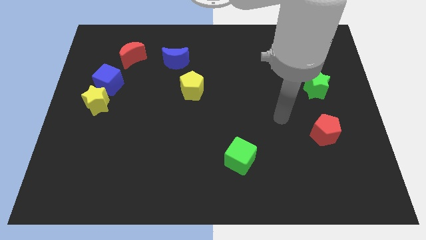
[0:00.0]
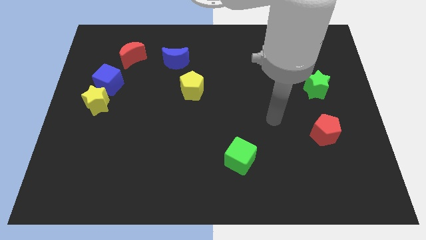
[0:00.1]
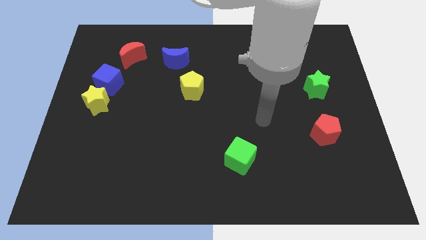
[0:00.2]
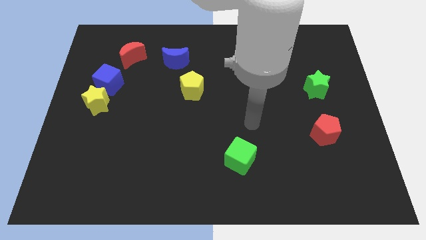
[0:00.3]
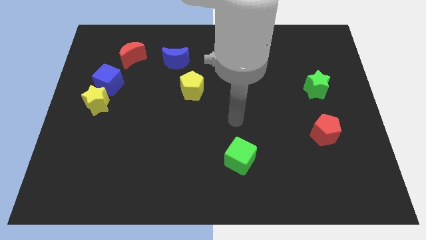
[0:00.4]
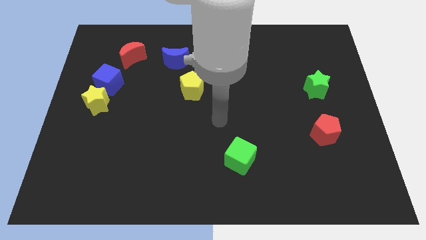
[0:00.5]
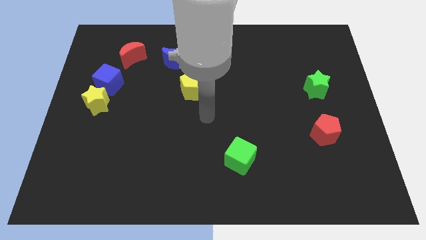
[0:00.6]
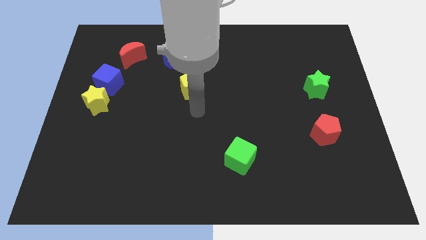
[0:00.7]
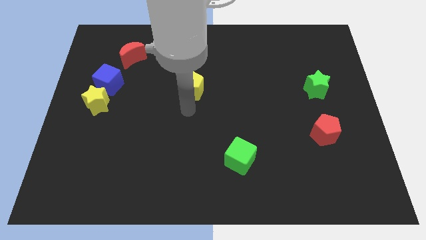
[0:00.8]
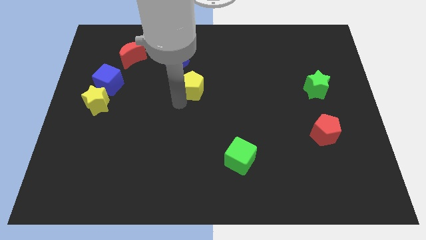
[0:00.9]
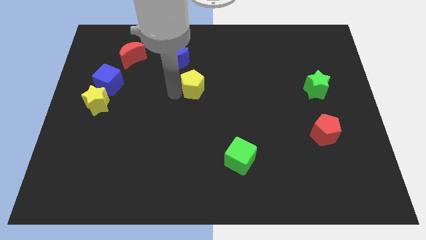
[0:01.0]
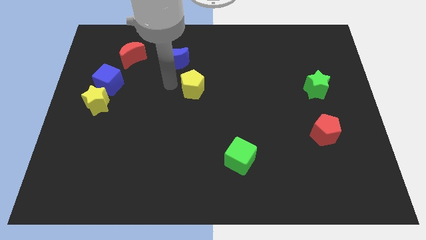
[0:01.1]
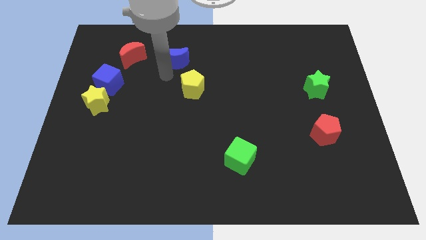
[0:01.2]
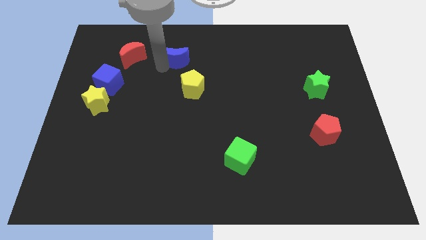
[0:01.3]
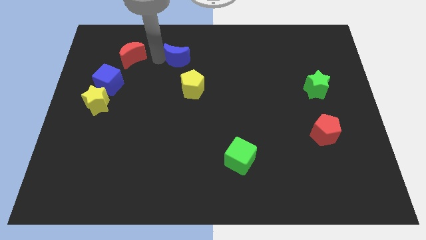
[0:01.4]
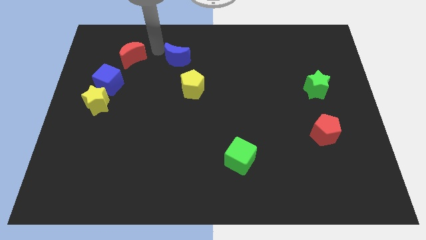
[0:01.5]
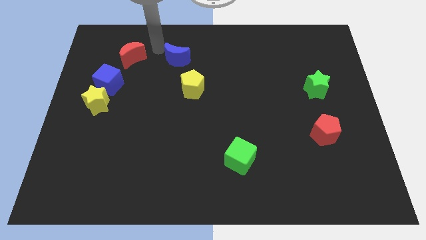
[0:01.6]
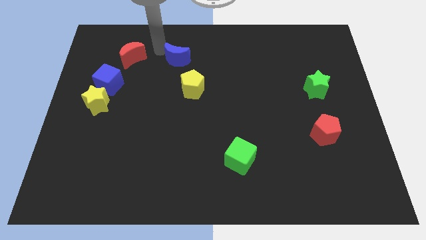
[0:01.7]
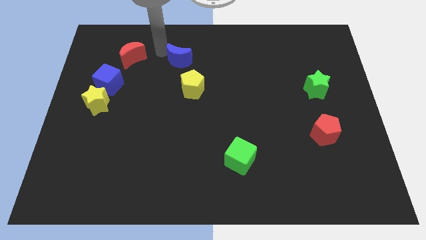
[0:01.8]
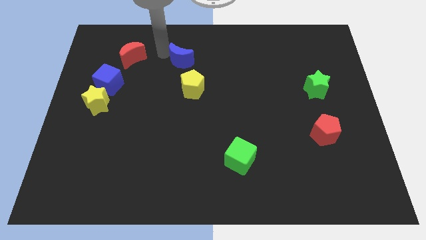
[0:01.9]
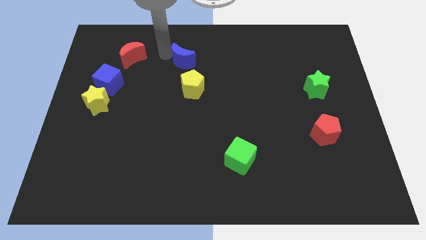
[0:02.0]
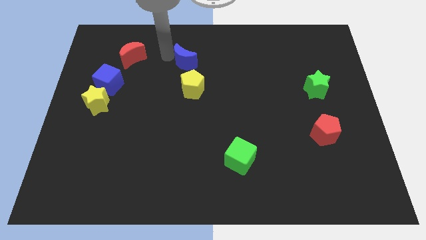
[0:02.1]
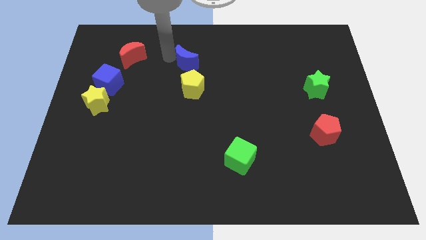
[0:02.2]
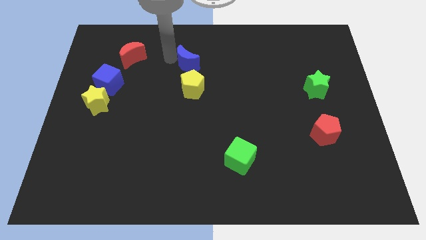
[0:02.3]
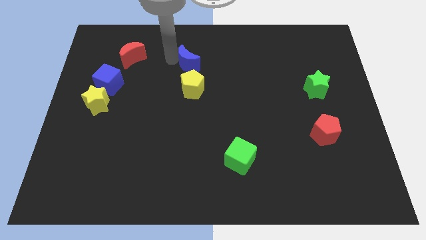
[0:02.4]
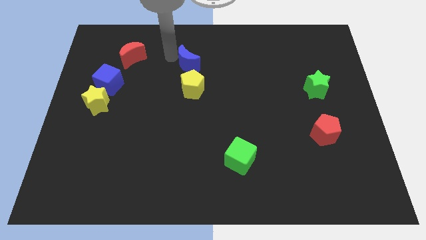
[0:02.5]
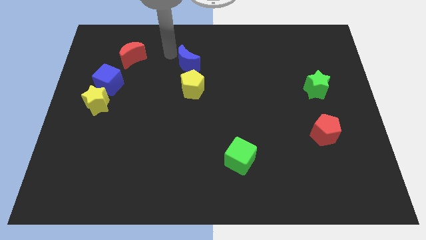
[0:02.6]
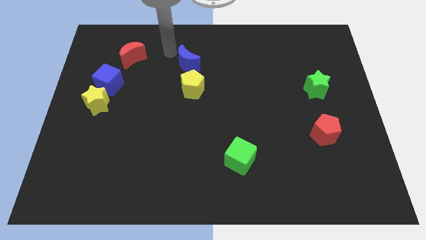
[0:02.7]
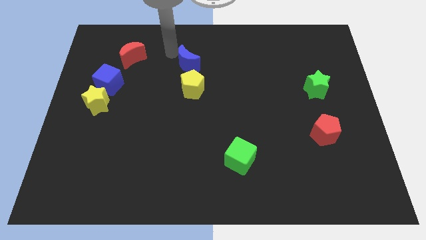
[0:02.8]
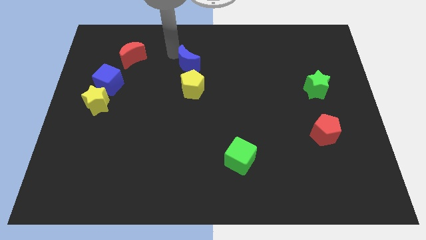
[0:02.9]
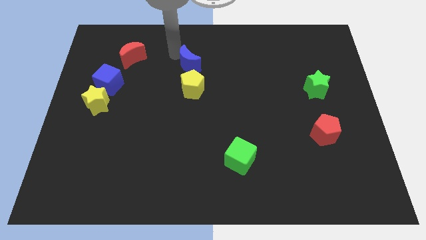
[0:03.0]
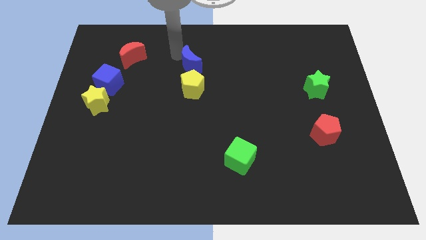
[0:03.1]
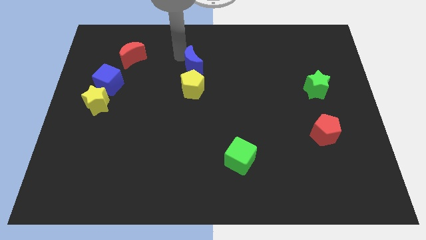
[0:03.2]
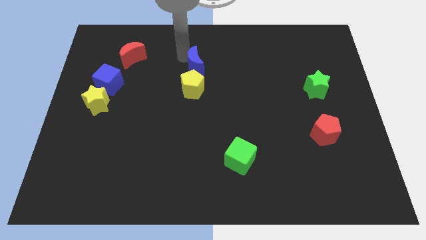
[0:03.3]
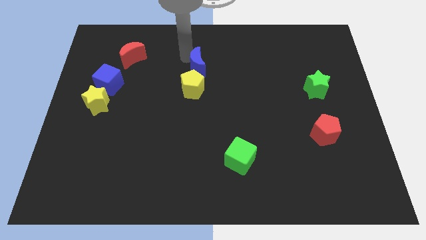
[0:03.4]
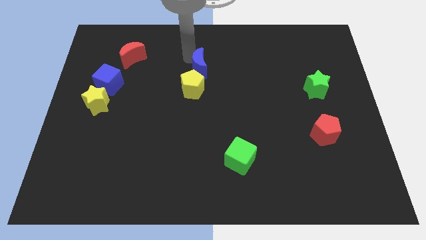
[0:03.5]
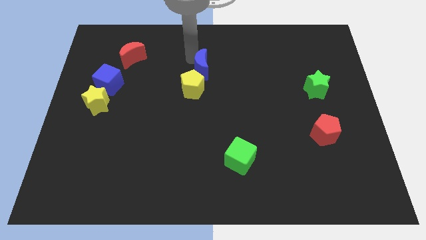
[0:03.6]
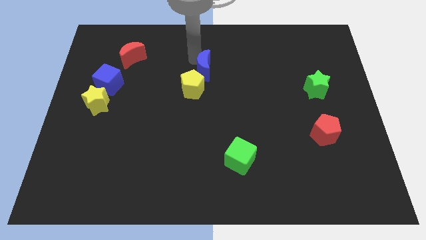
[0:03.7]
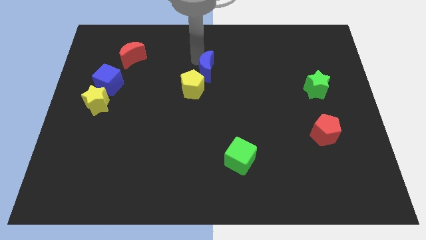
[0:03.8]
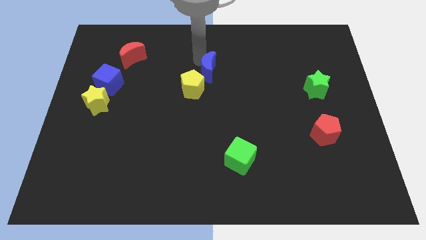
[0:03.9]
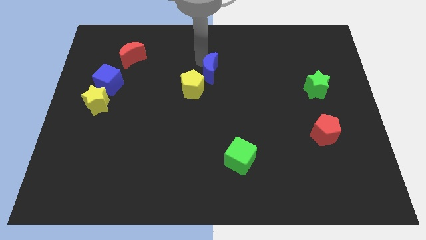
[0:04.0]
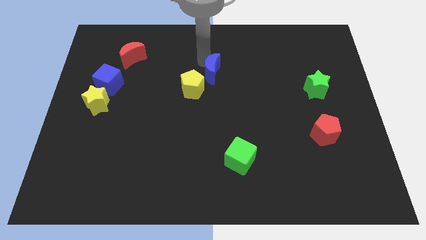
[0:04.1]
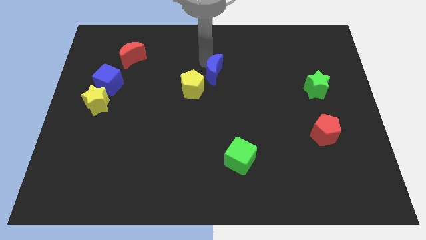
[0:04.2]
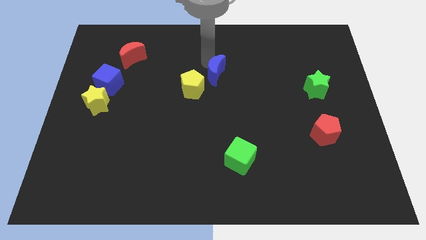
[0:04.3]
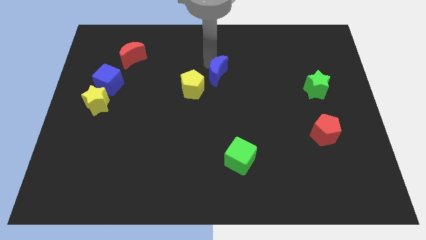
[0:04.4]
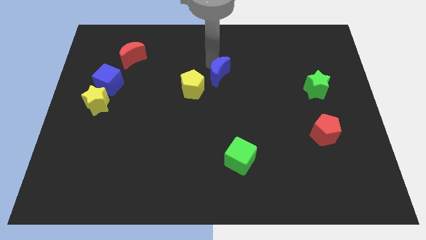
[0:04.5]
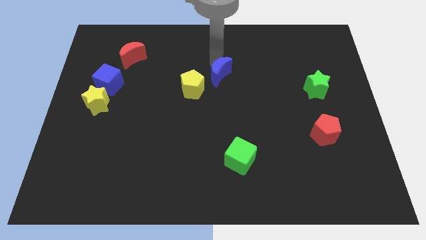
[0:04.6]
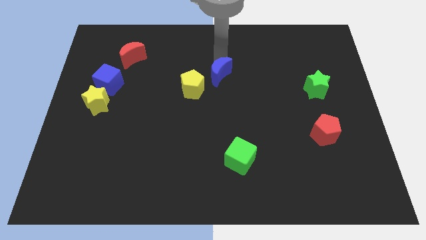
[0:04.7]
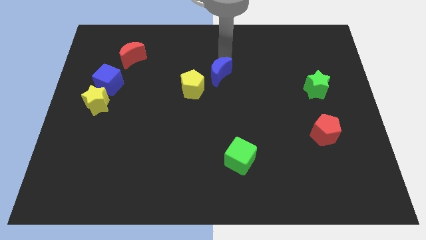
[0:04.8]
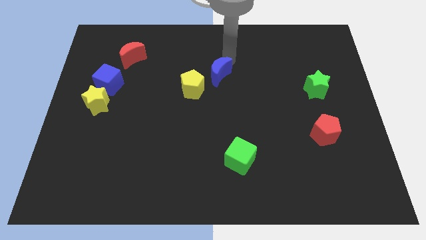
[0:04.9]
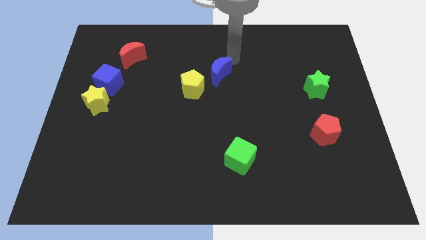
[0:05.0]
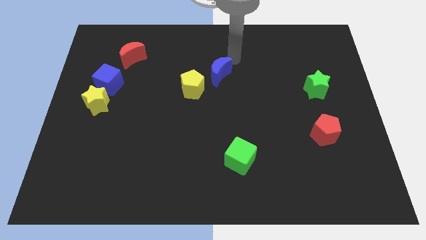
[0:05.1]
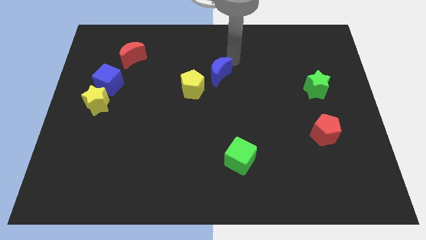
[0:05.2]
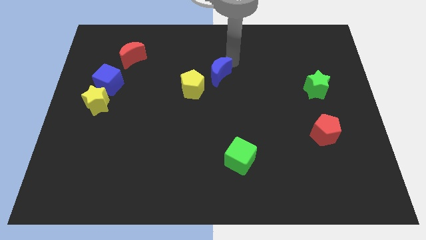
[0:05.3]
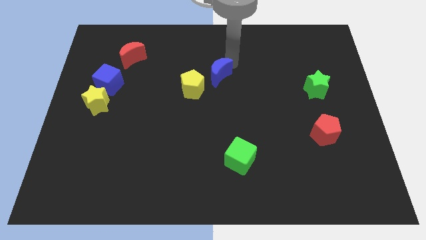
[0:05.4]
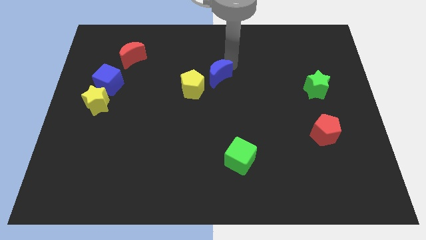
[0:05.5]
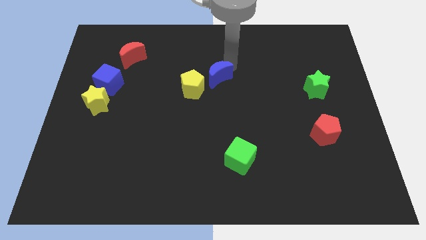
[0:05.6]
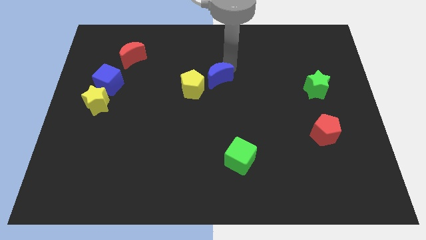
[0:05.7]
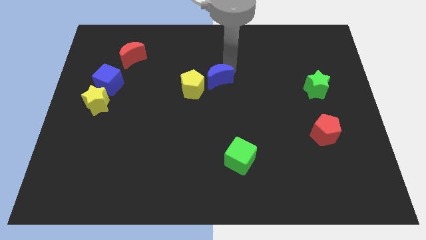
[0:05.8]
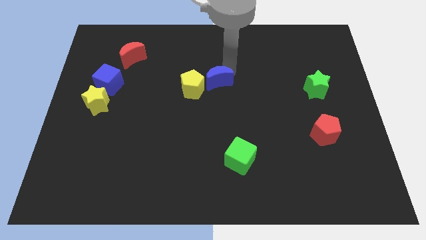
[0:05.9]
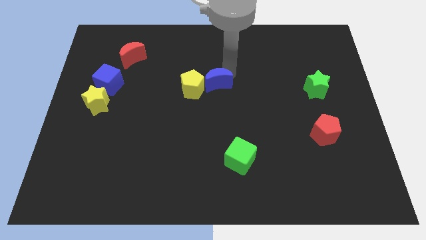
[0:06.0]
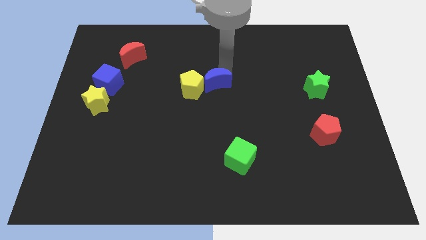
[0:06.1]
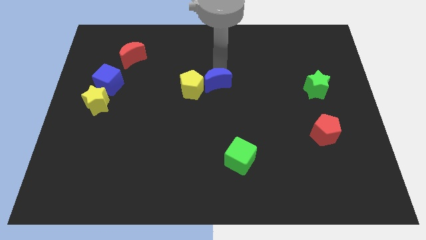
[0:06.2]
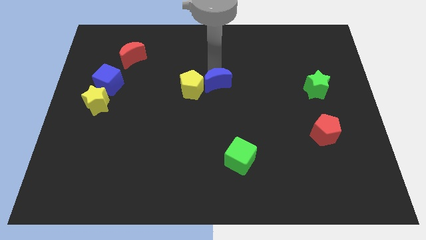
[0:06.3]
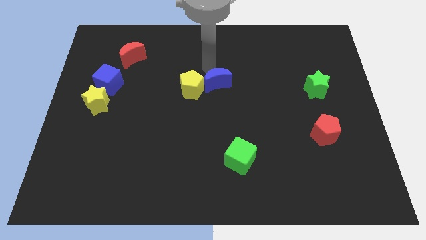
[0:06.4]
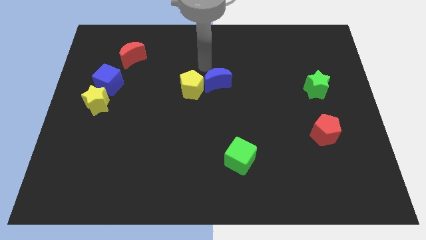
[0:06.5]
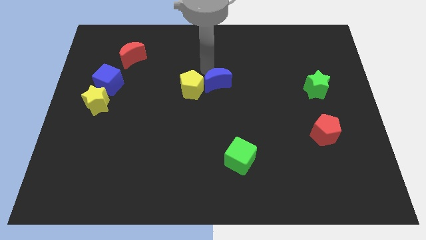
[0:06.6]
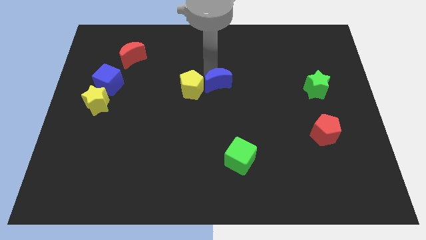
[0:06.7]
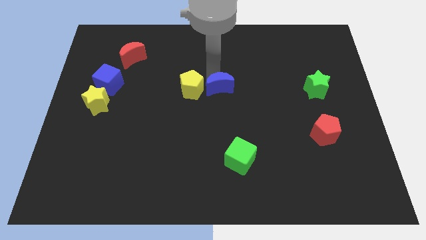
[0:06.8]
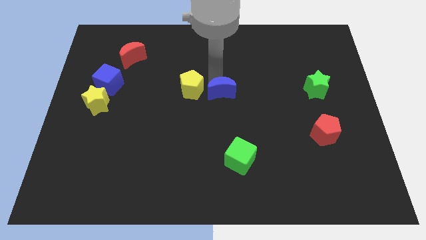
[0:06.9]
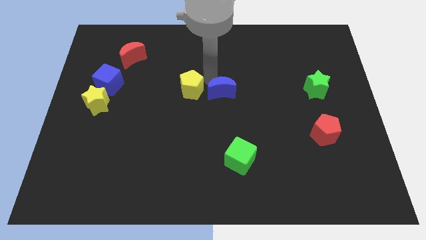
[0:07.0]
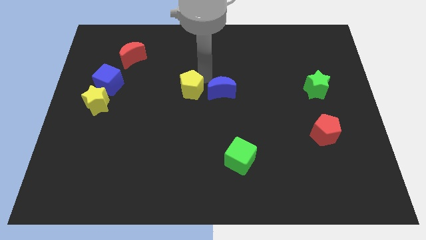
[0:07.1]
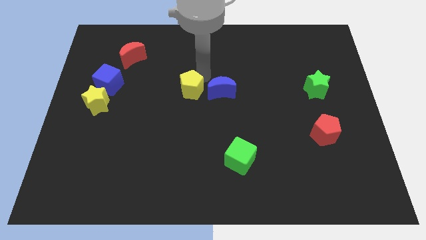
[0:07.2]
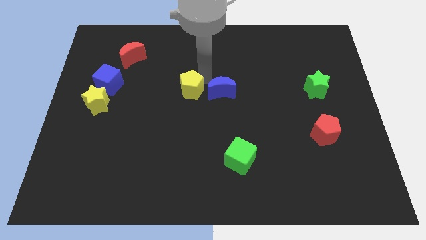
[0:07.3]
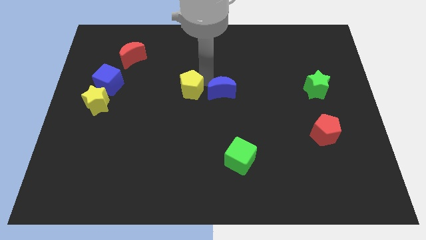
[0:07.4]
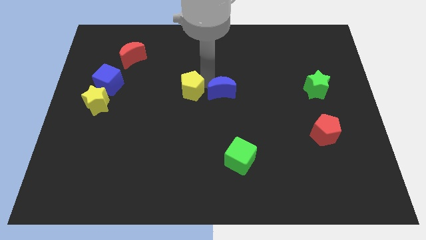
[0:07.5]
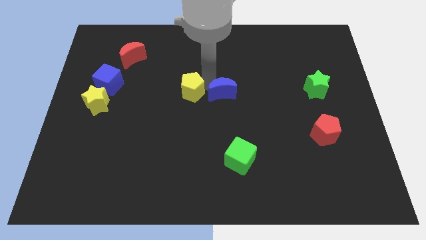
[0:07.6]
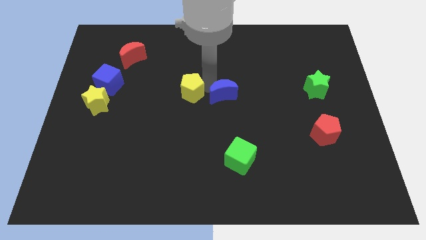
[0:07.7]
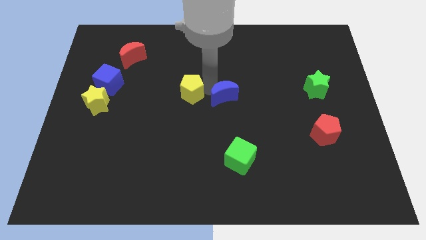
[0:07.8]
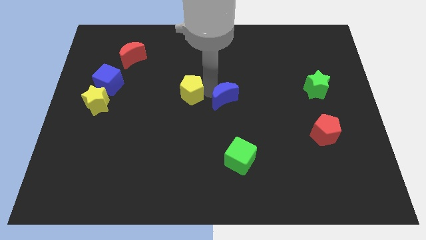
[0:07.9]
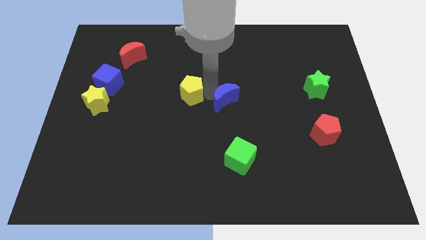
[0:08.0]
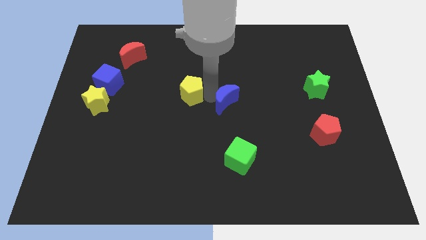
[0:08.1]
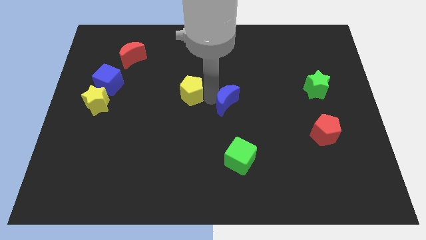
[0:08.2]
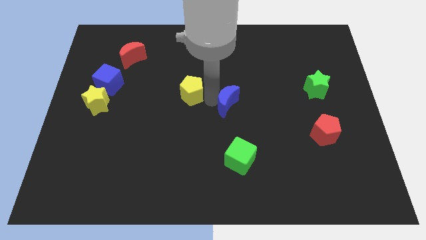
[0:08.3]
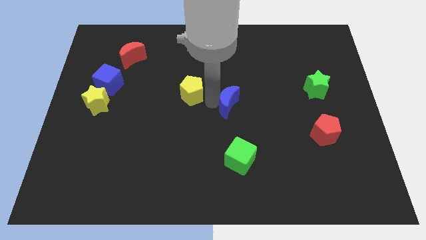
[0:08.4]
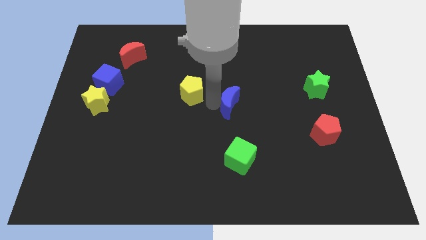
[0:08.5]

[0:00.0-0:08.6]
push the blue moon downwards and then to the right
